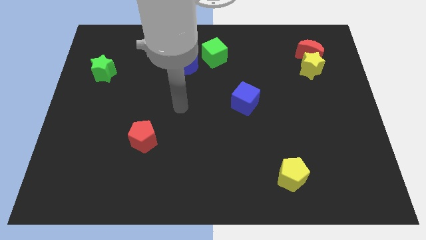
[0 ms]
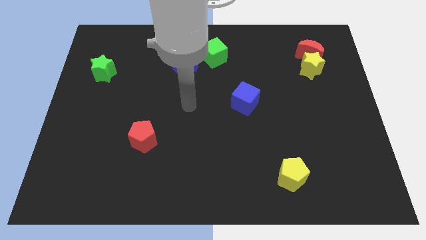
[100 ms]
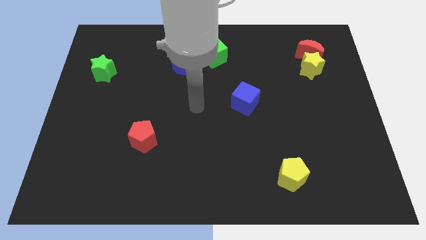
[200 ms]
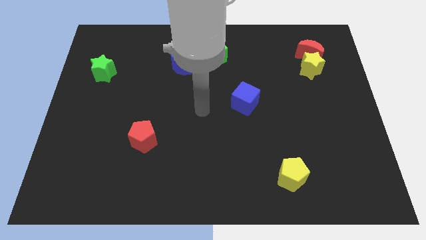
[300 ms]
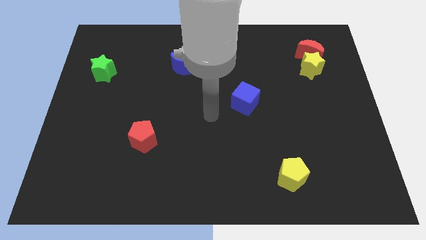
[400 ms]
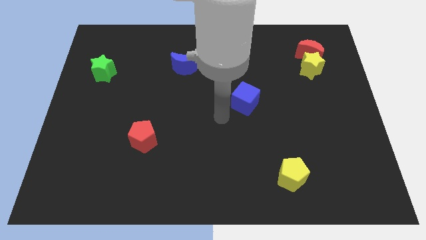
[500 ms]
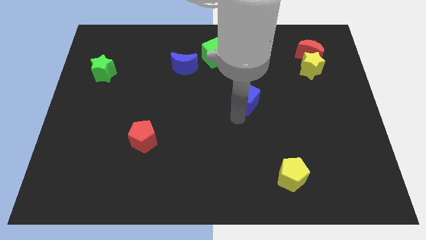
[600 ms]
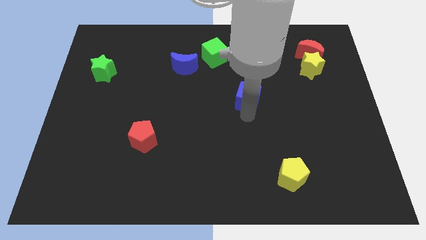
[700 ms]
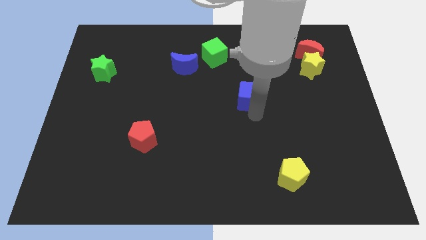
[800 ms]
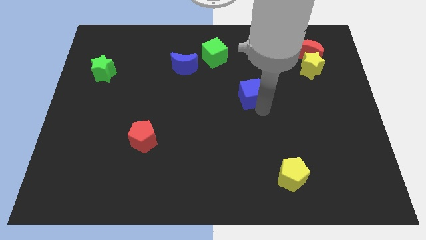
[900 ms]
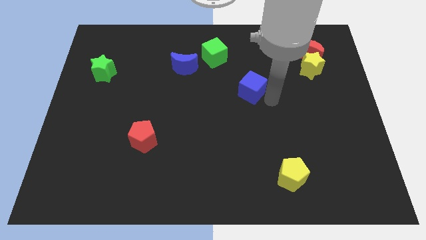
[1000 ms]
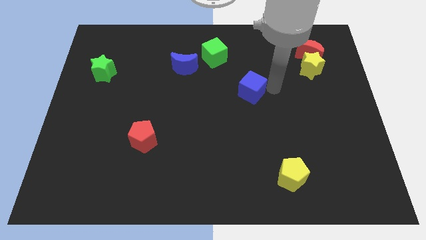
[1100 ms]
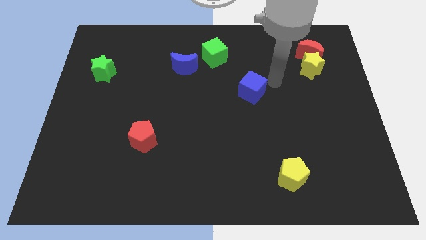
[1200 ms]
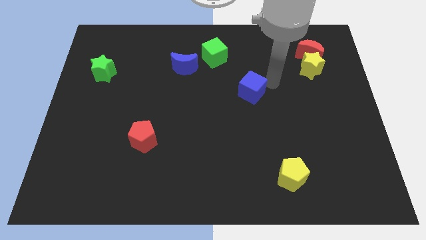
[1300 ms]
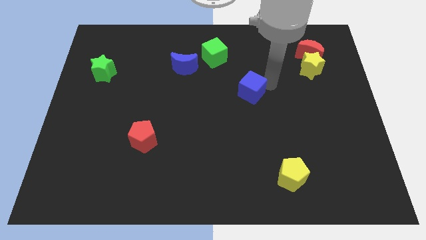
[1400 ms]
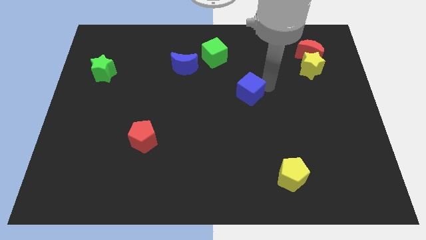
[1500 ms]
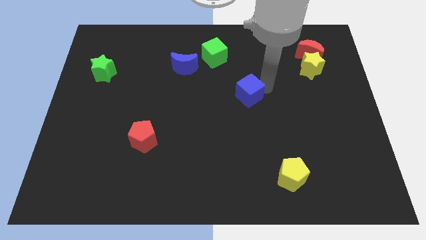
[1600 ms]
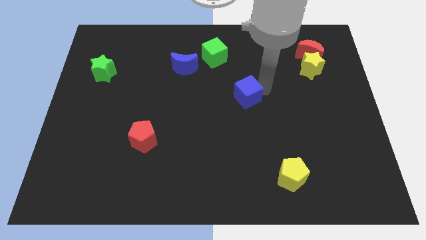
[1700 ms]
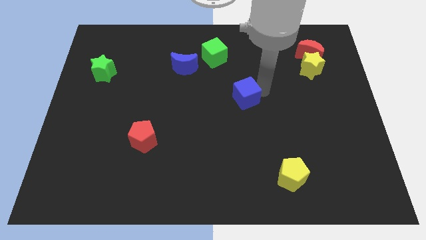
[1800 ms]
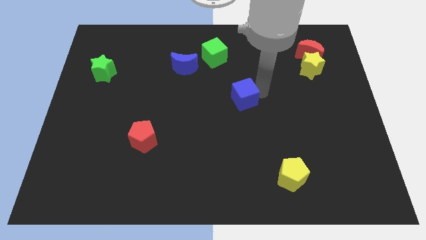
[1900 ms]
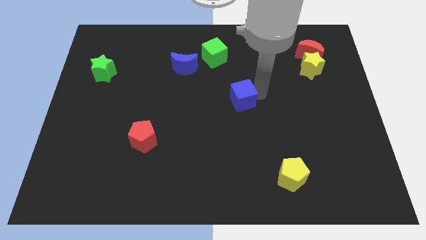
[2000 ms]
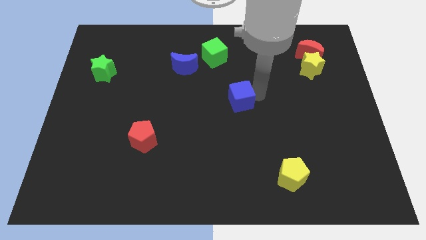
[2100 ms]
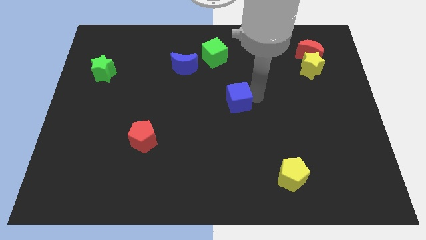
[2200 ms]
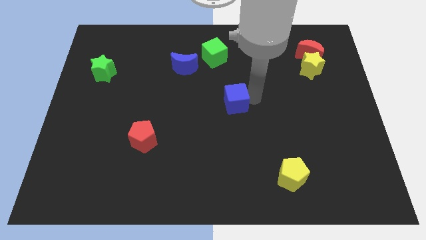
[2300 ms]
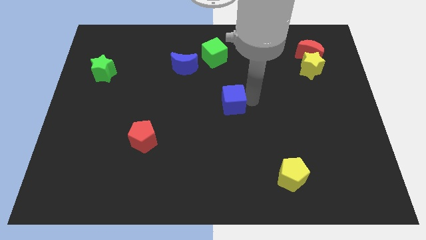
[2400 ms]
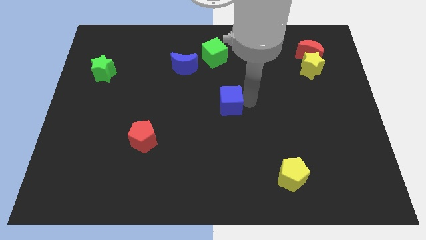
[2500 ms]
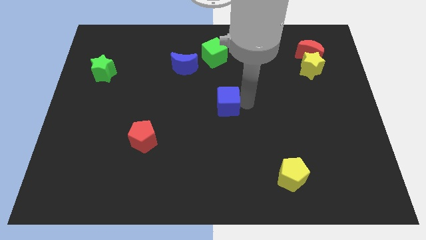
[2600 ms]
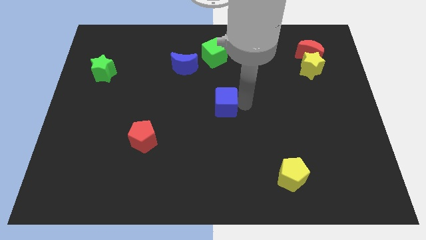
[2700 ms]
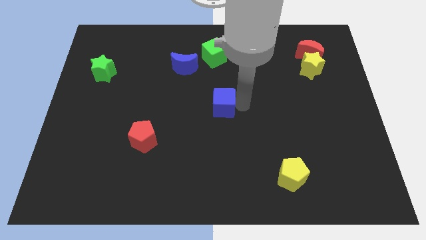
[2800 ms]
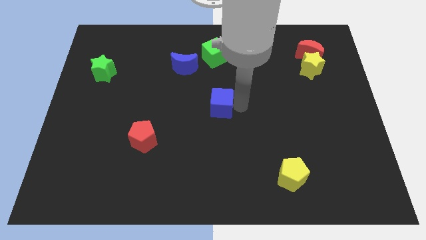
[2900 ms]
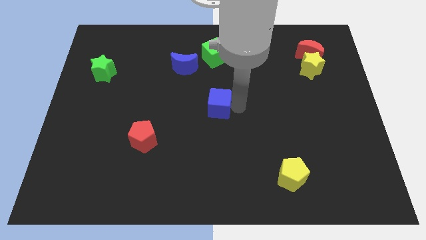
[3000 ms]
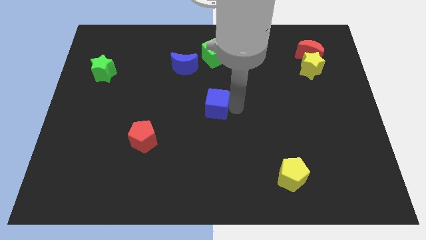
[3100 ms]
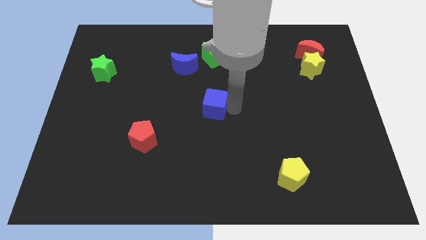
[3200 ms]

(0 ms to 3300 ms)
slide the blue cube left somewhat

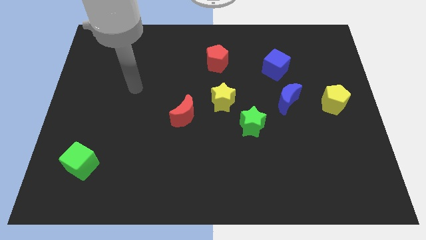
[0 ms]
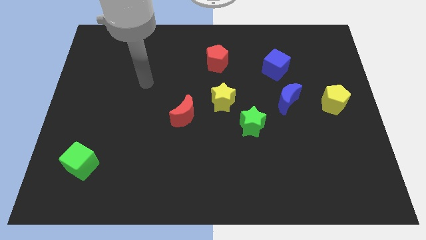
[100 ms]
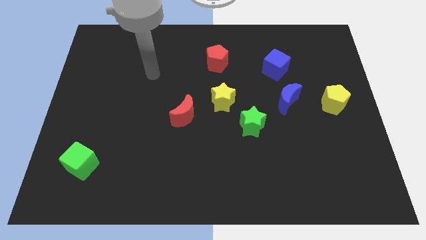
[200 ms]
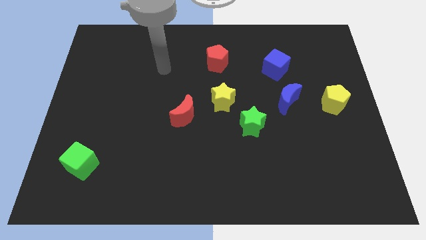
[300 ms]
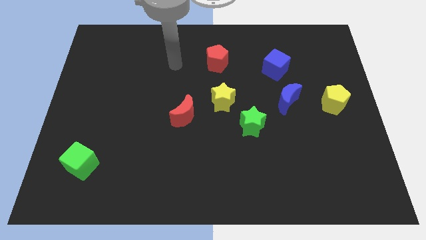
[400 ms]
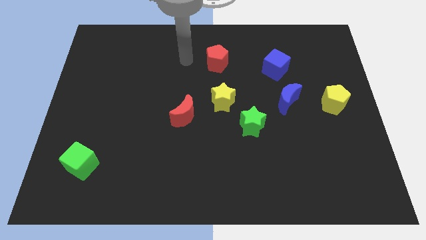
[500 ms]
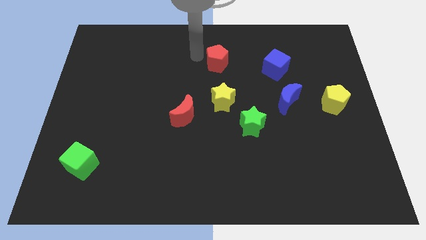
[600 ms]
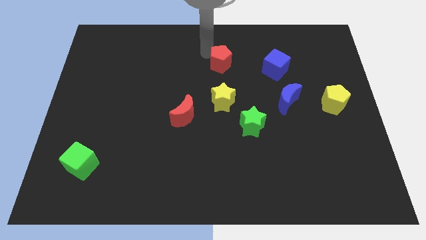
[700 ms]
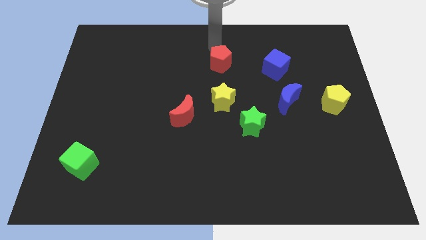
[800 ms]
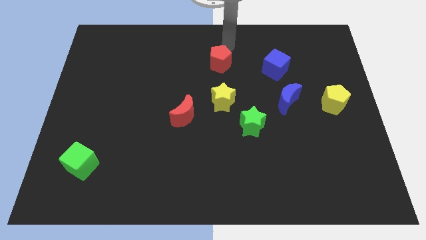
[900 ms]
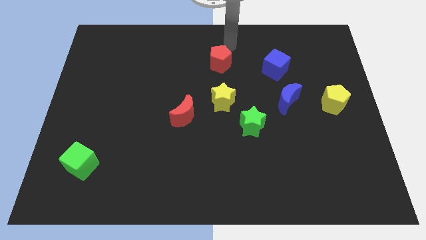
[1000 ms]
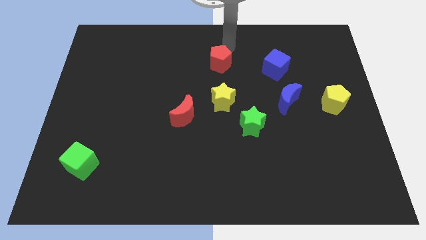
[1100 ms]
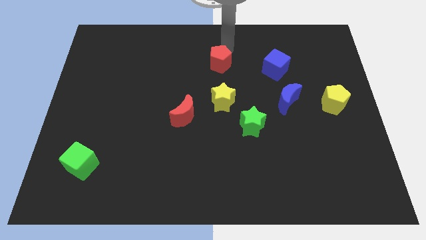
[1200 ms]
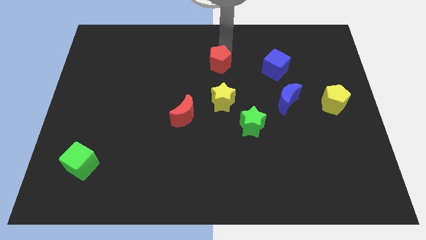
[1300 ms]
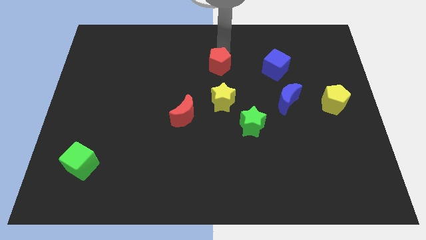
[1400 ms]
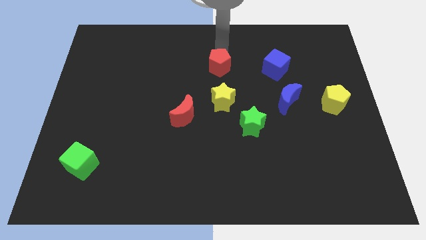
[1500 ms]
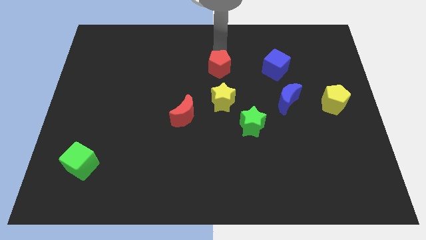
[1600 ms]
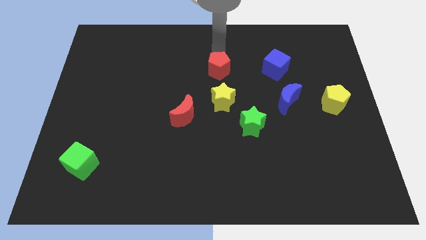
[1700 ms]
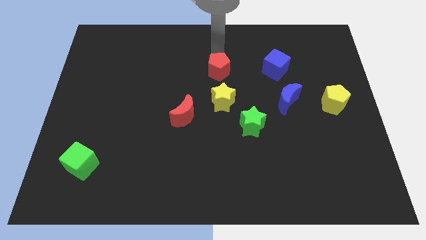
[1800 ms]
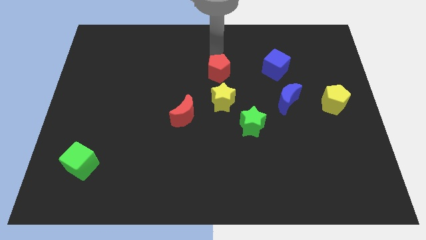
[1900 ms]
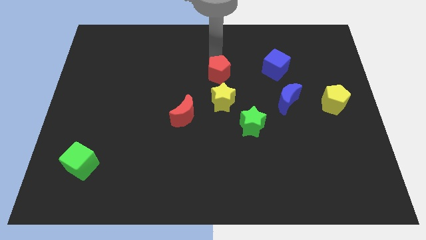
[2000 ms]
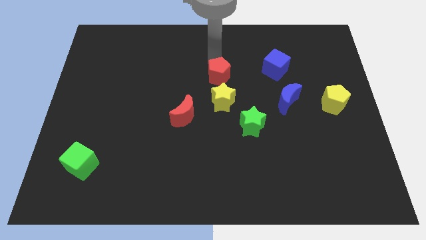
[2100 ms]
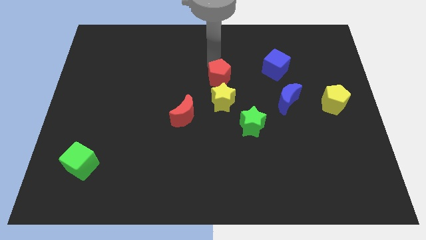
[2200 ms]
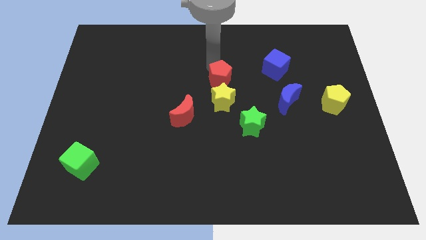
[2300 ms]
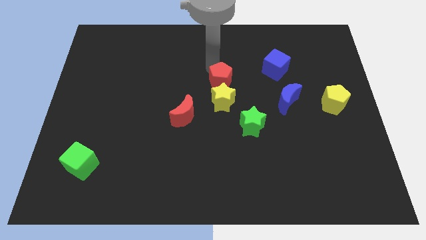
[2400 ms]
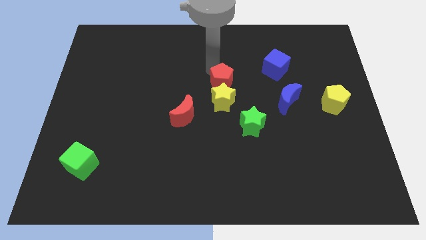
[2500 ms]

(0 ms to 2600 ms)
move the red pentagon downwards a little bit

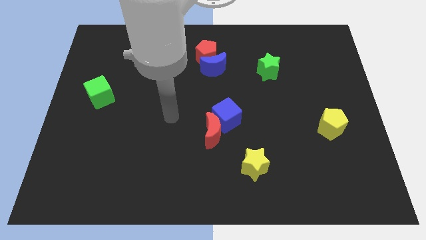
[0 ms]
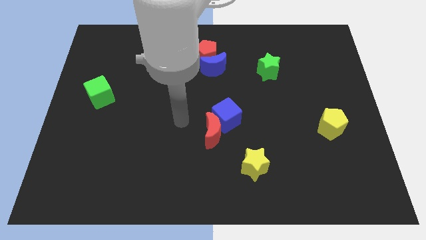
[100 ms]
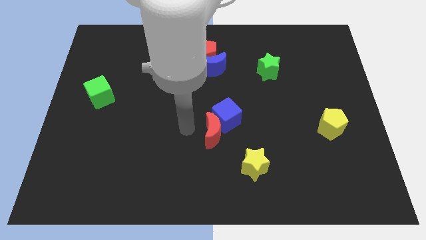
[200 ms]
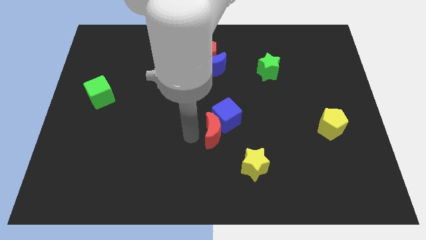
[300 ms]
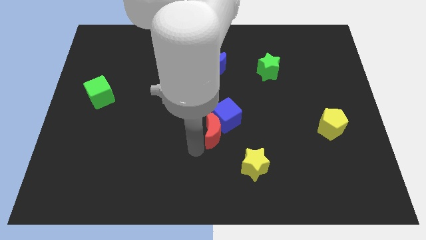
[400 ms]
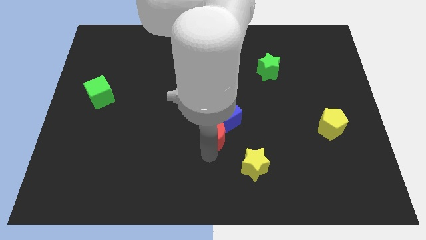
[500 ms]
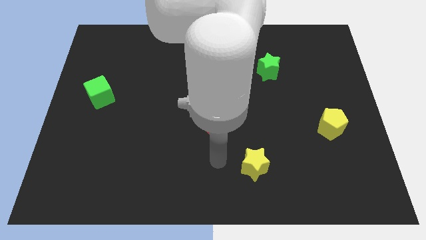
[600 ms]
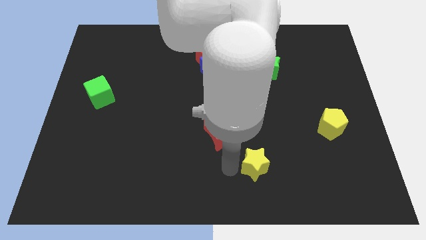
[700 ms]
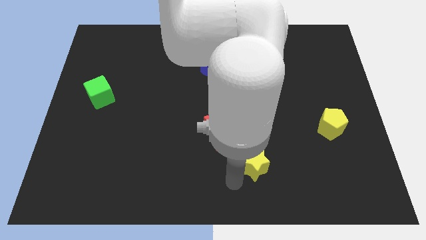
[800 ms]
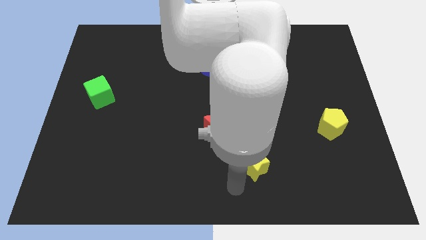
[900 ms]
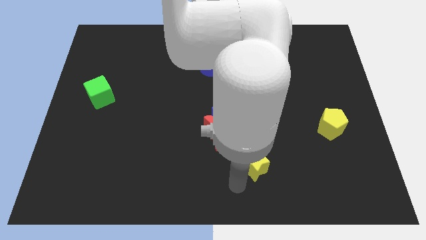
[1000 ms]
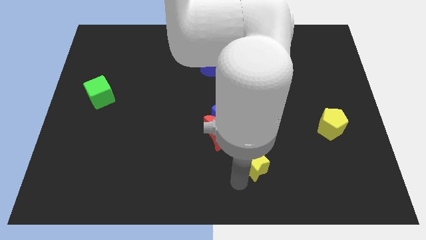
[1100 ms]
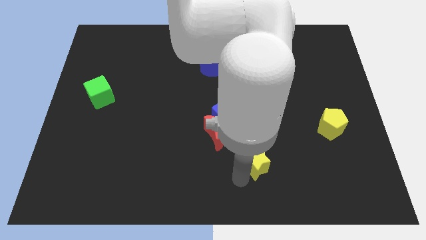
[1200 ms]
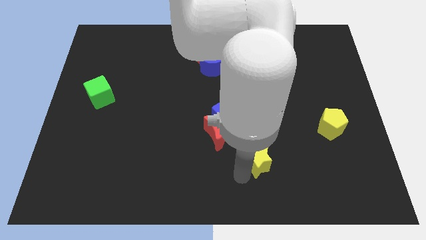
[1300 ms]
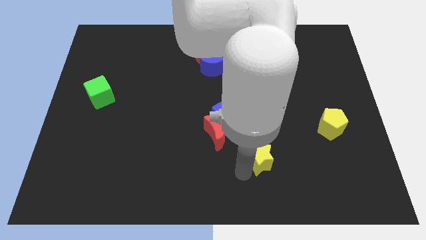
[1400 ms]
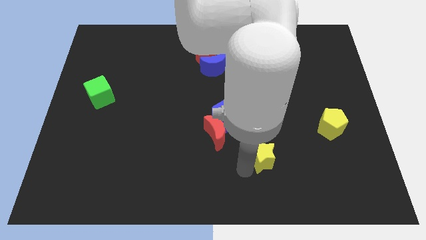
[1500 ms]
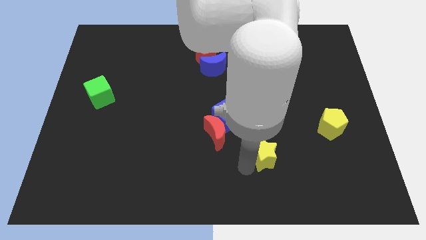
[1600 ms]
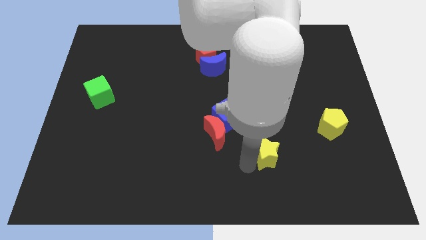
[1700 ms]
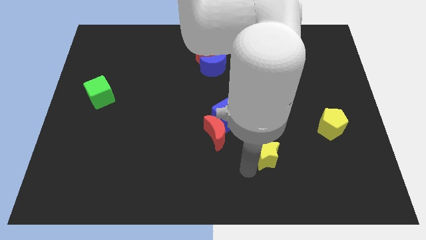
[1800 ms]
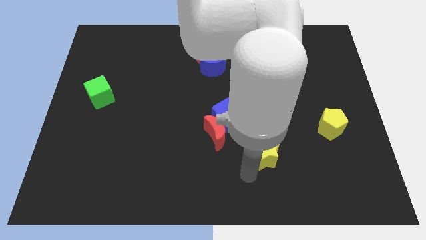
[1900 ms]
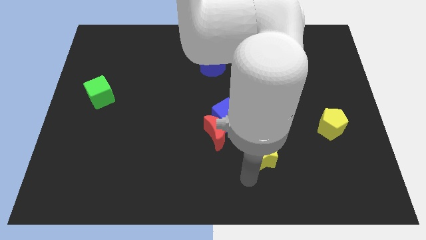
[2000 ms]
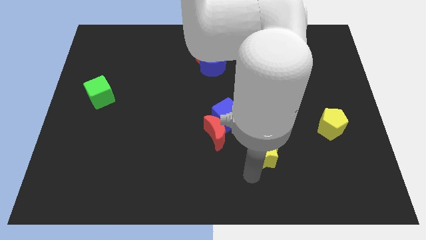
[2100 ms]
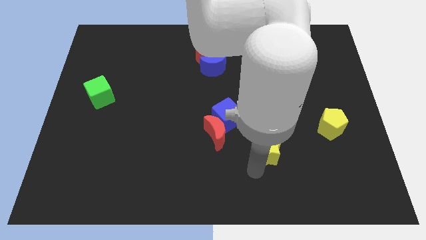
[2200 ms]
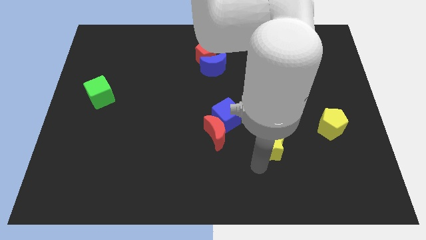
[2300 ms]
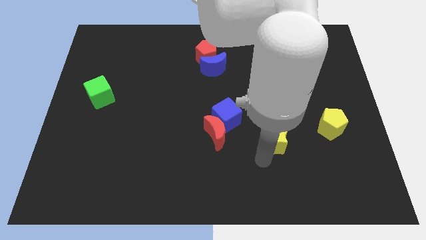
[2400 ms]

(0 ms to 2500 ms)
slide the yellow star slightly up and then to the right
